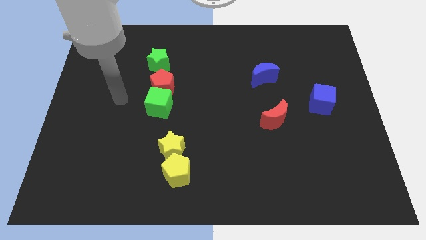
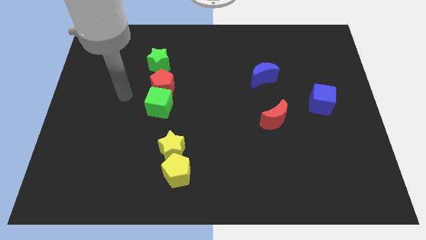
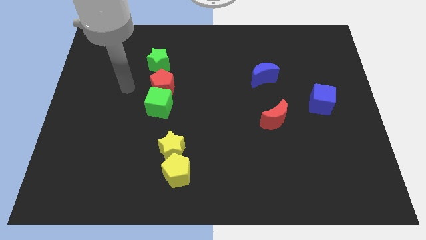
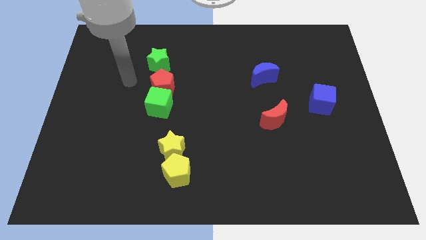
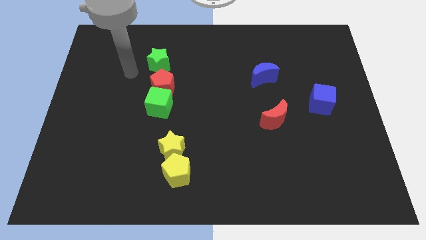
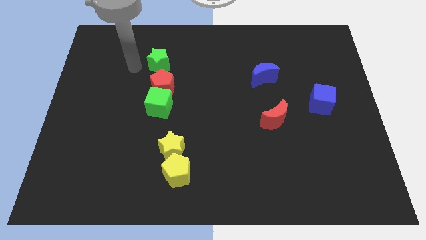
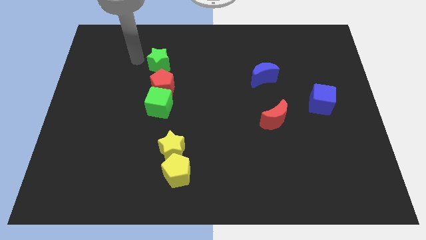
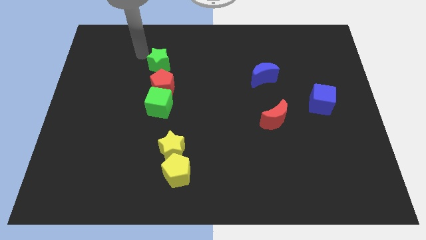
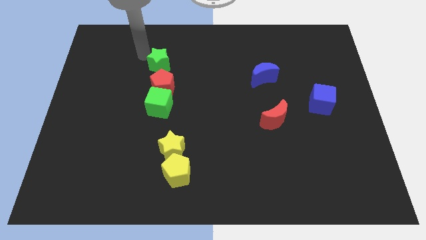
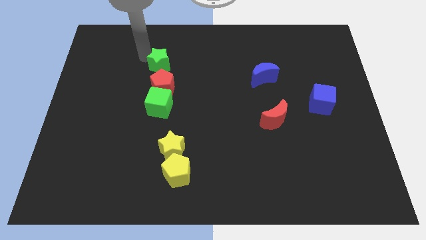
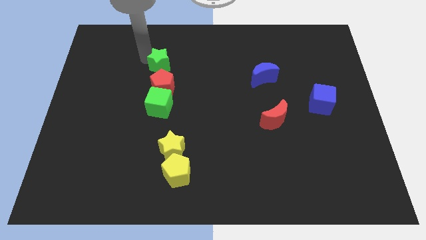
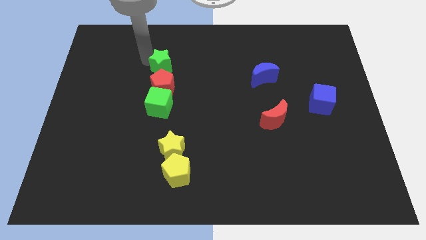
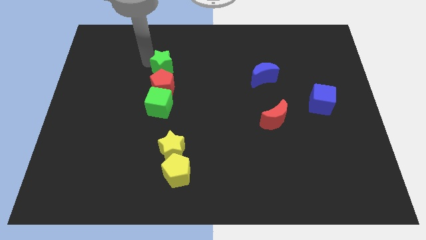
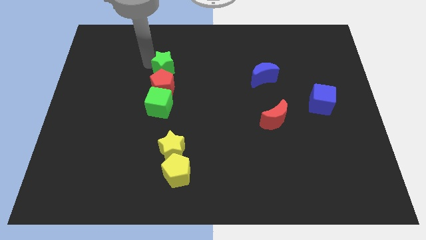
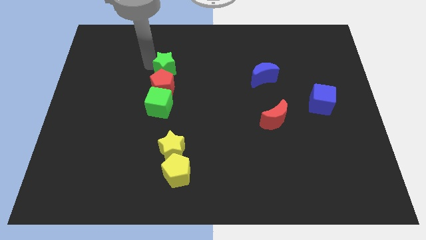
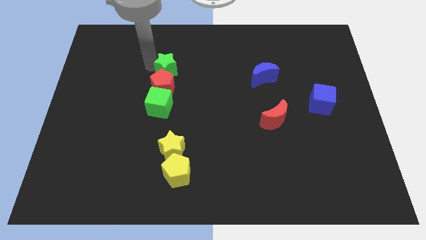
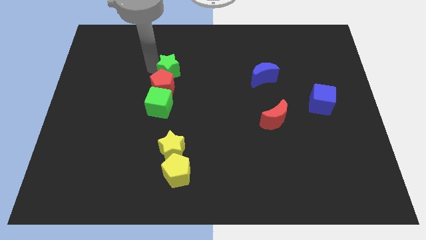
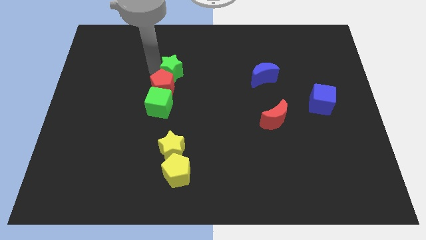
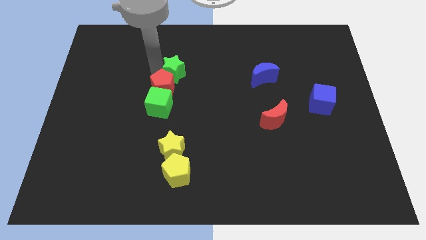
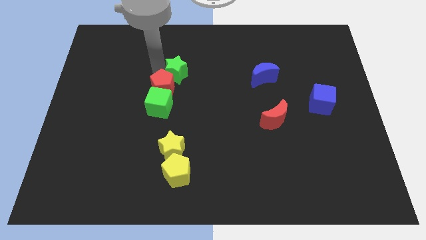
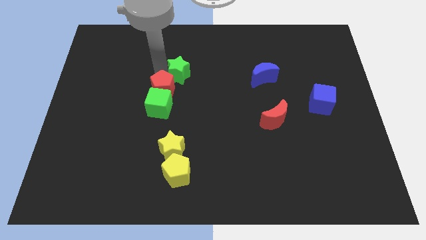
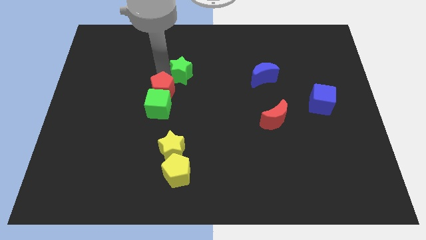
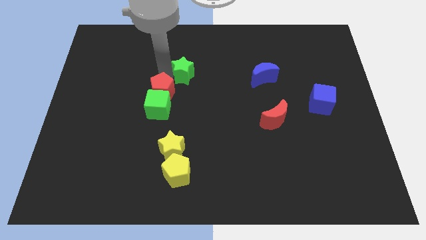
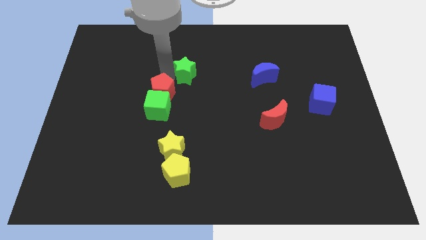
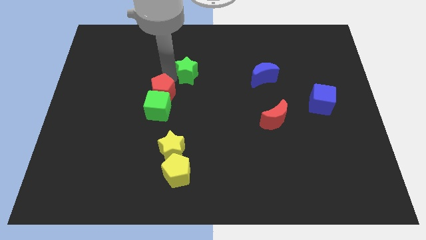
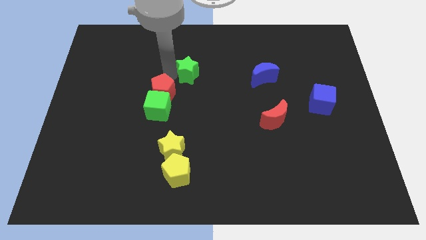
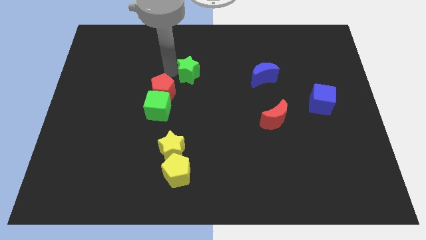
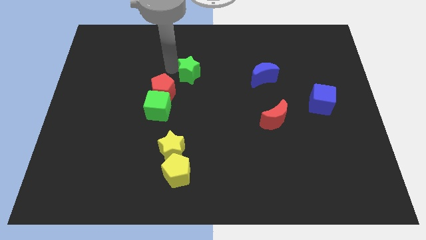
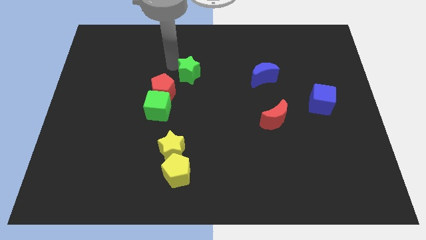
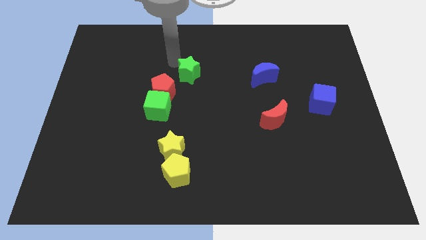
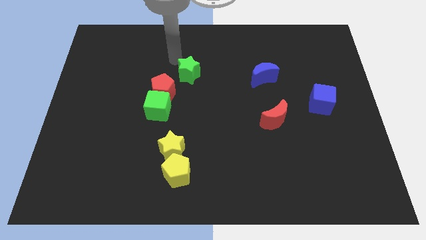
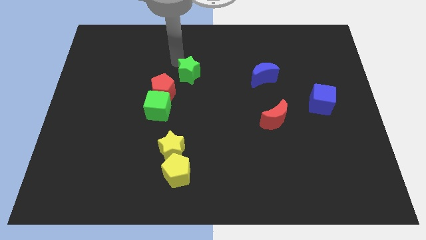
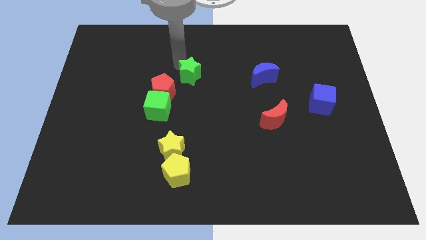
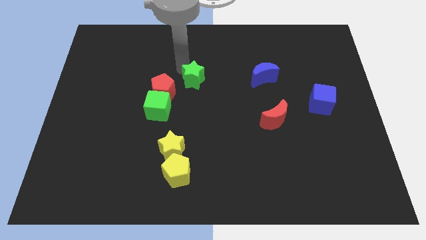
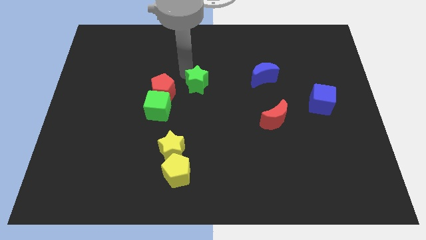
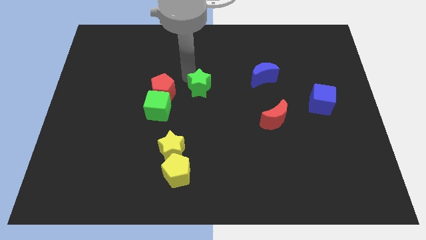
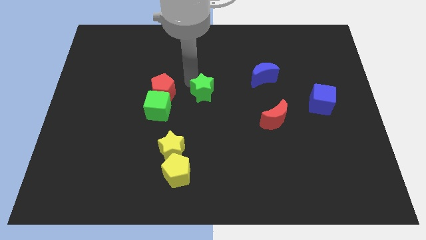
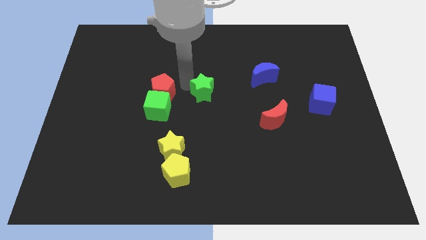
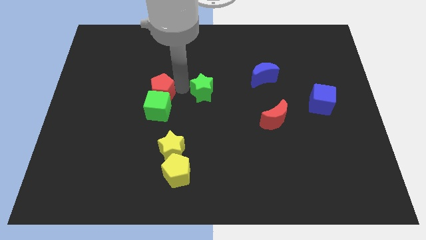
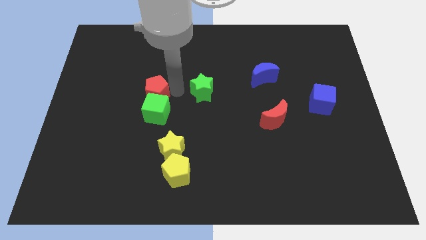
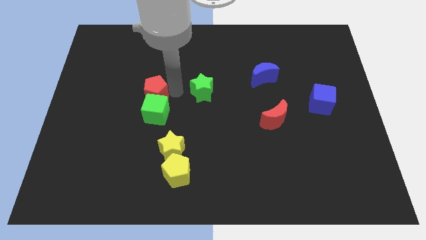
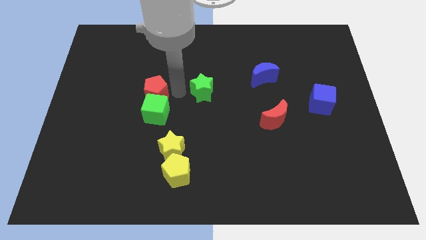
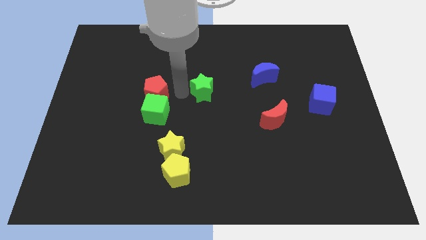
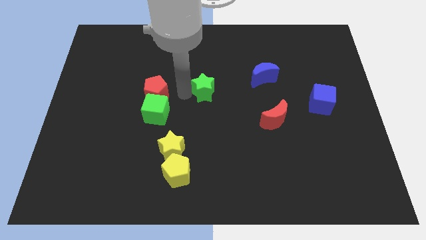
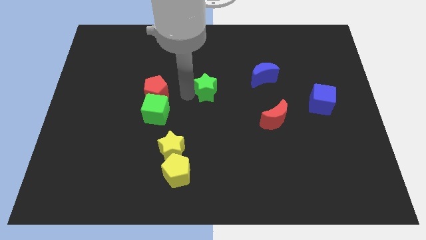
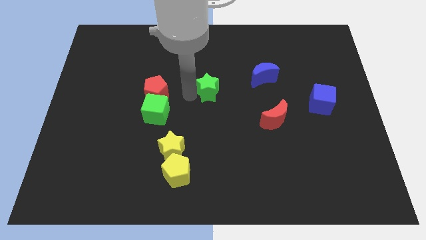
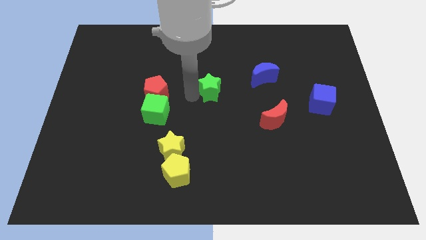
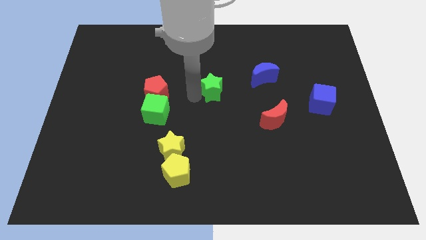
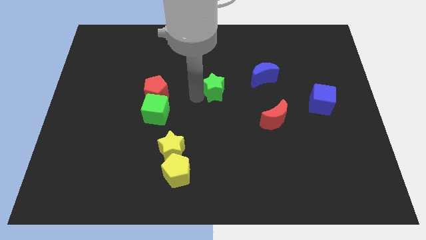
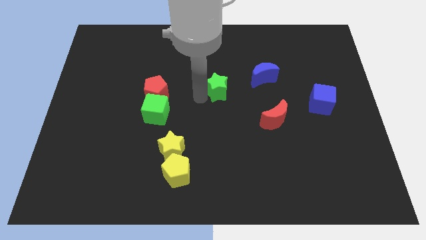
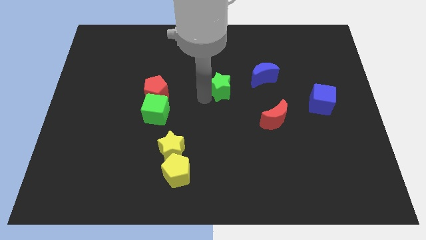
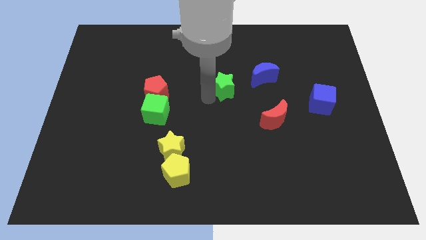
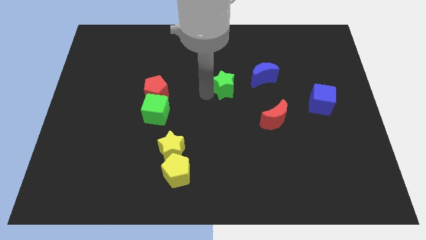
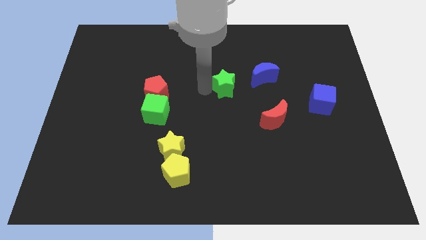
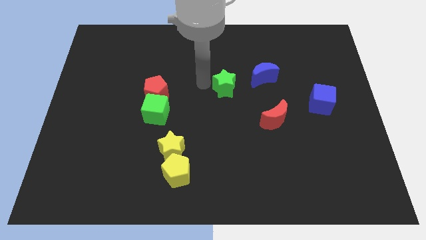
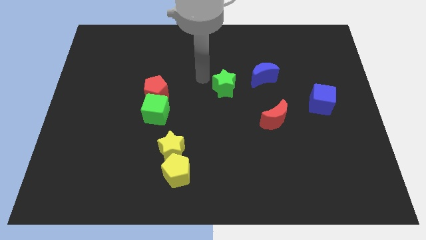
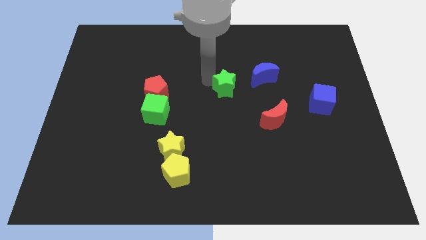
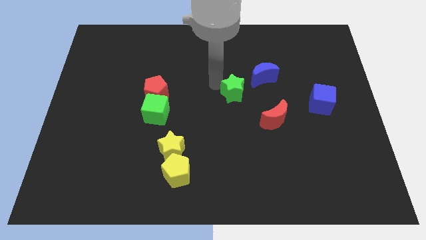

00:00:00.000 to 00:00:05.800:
move the green star to the top left side of the red moon

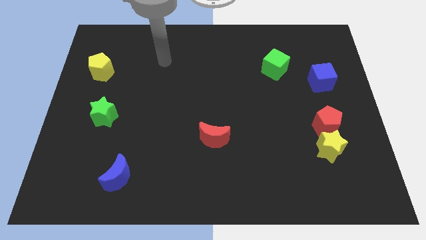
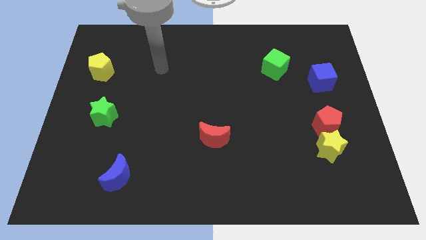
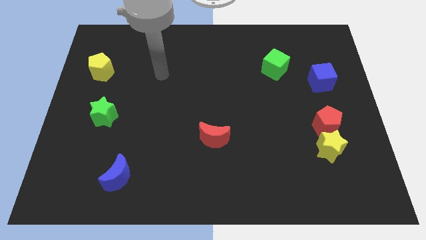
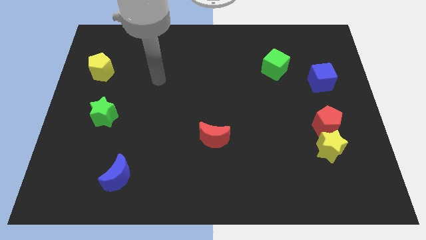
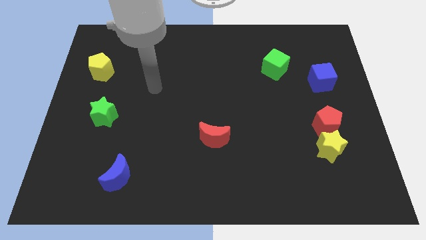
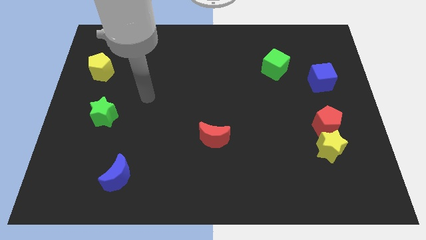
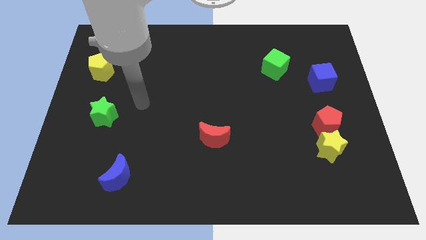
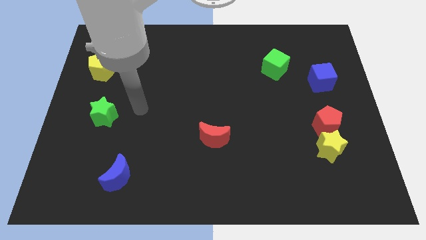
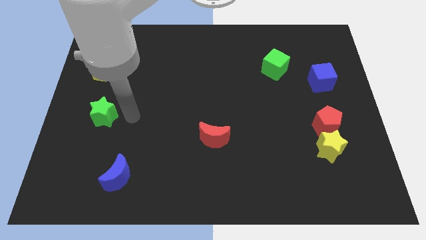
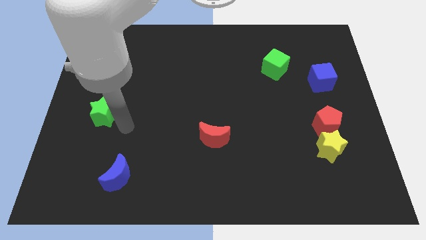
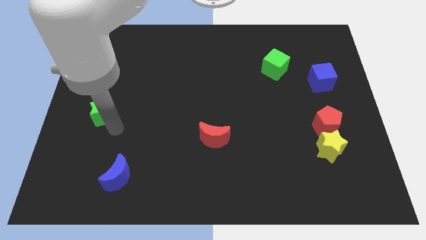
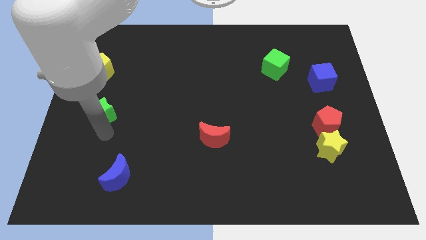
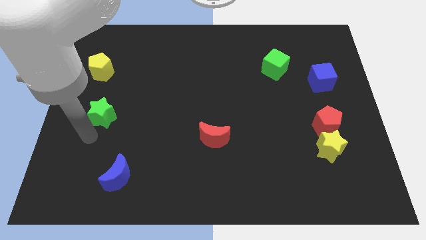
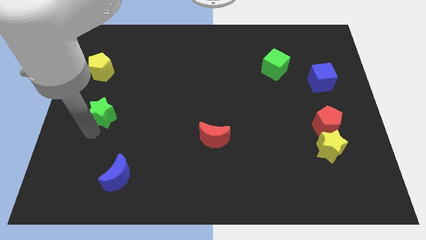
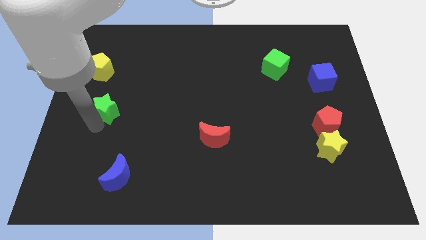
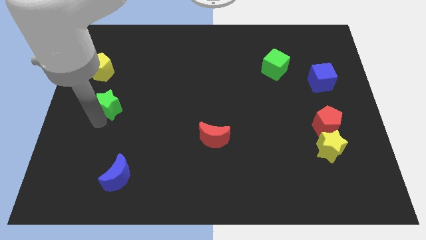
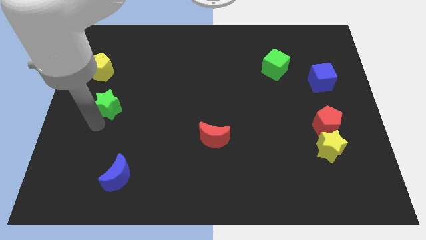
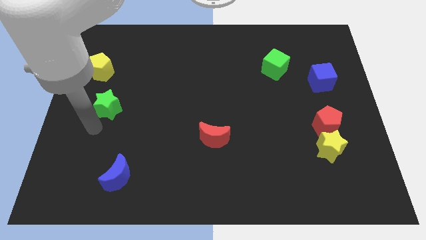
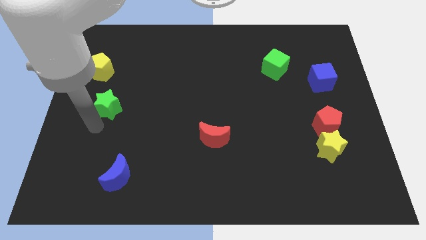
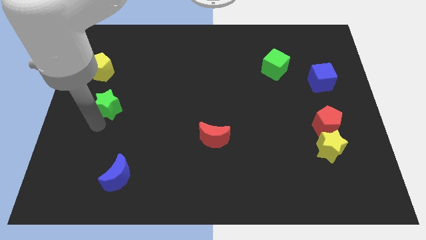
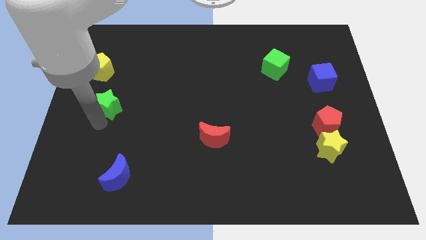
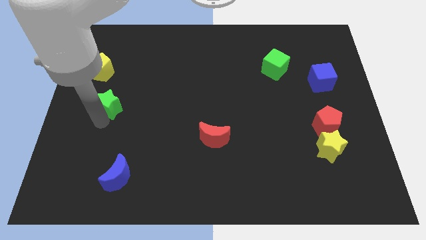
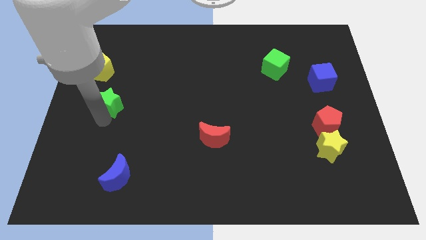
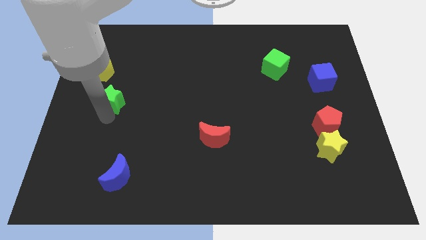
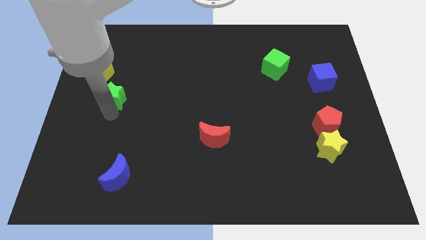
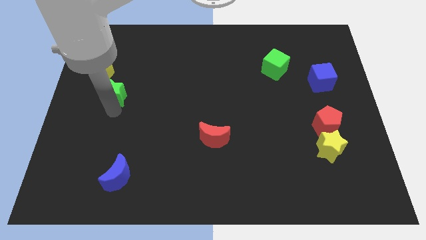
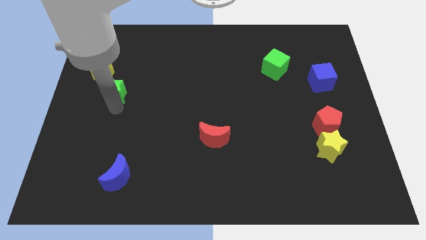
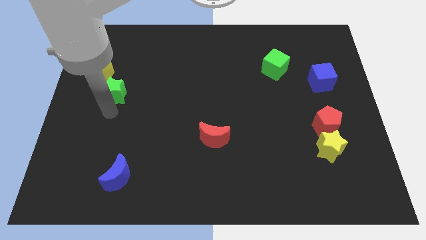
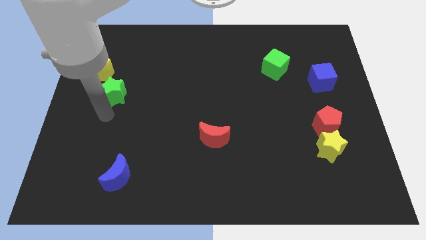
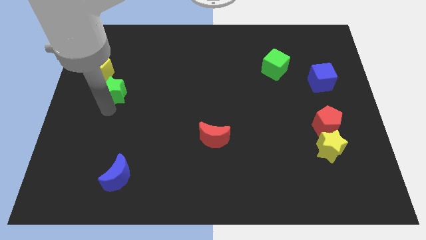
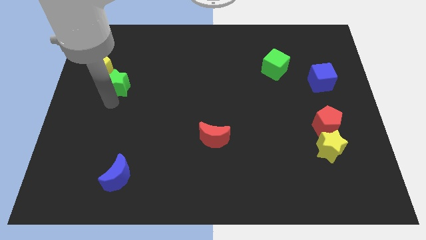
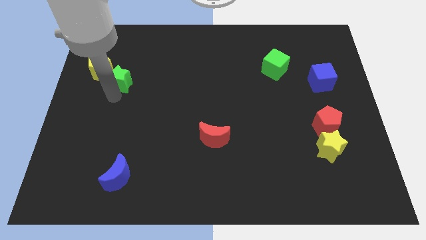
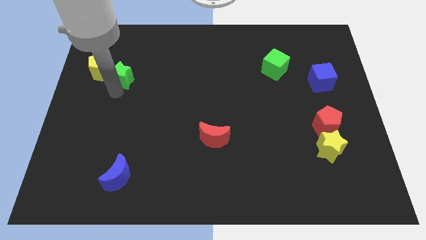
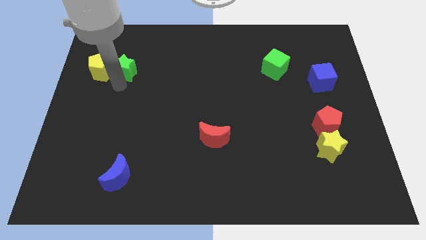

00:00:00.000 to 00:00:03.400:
push the green star to the top right of the yellow pentagon
